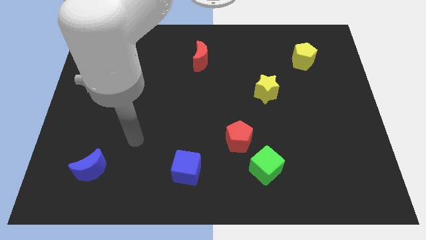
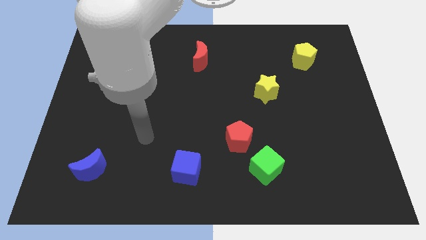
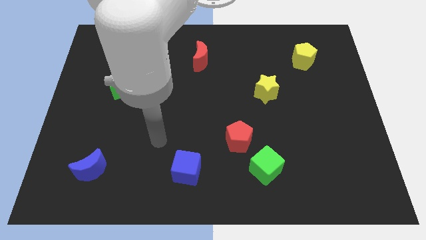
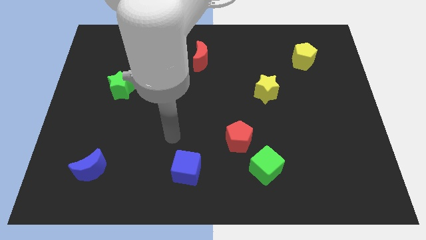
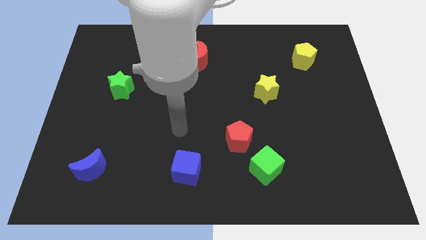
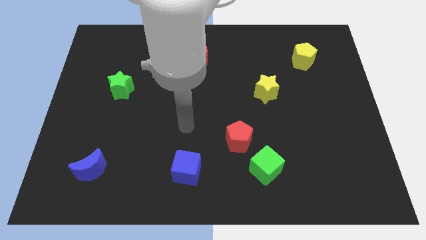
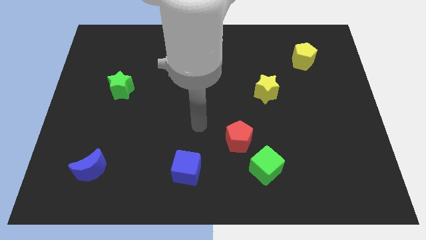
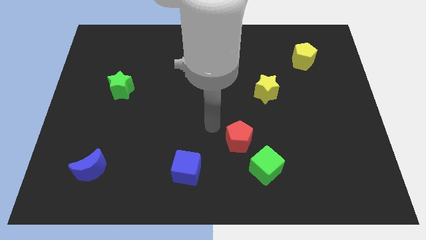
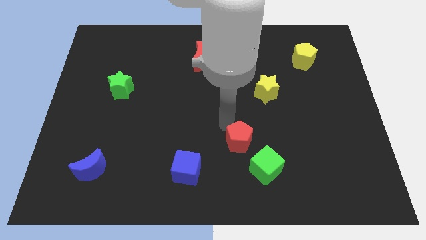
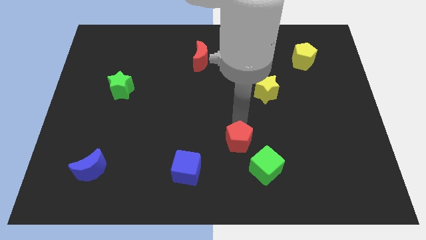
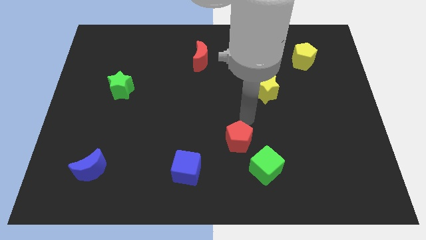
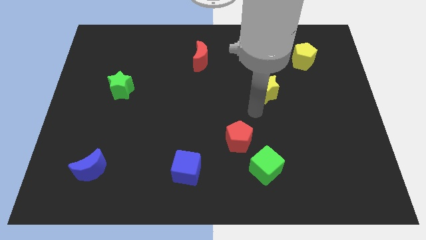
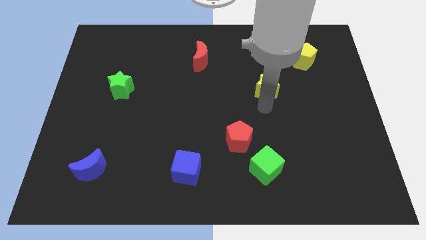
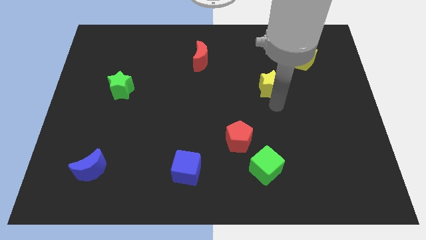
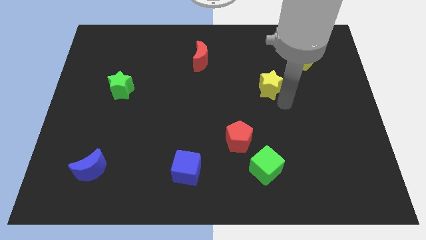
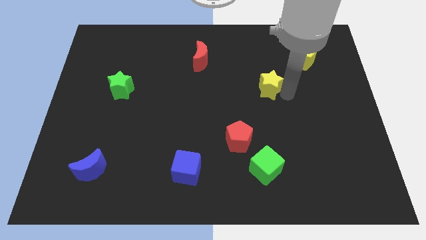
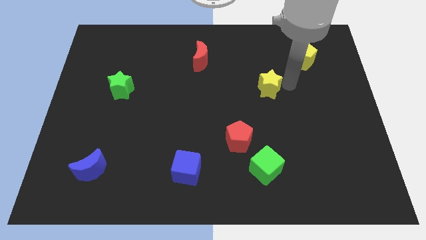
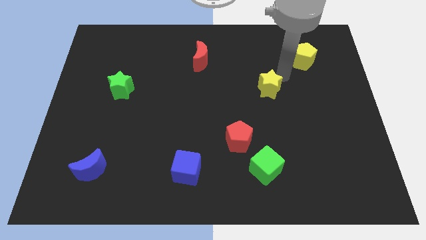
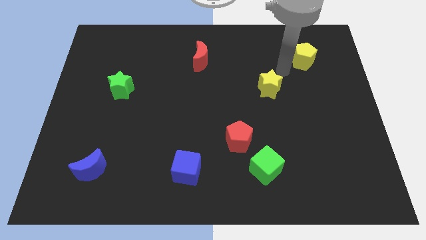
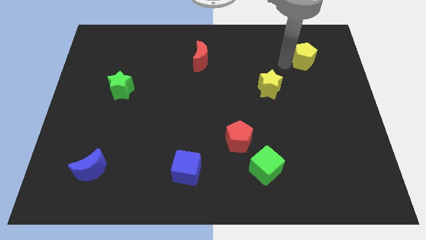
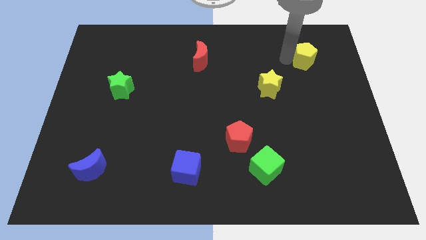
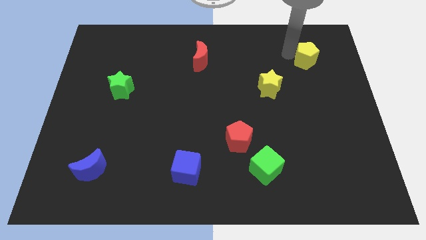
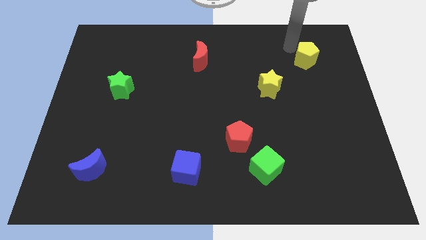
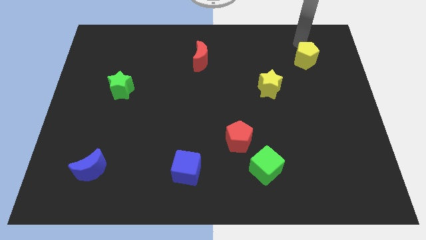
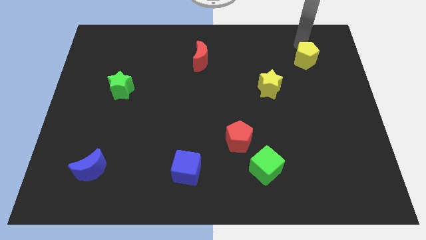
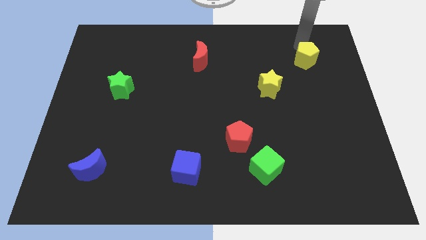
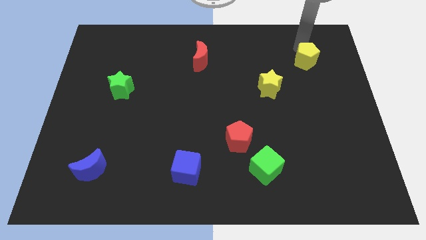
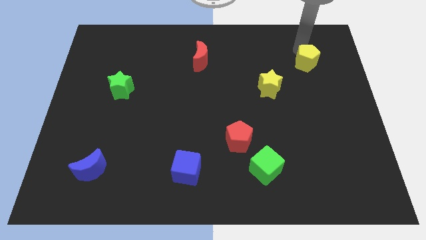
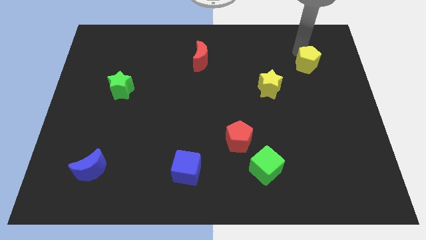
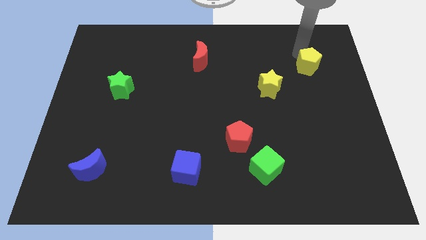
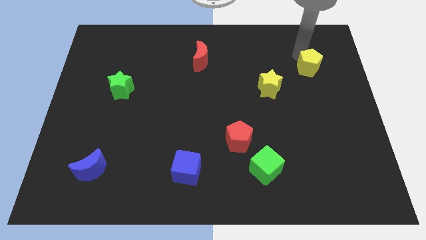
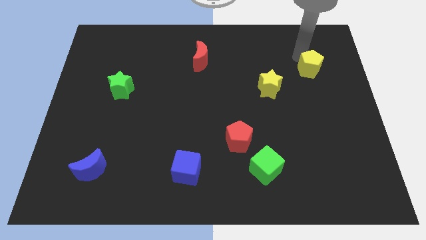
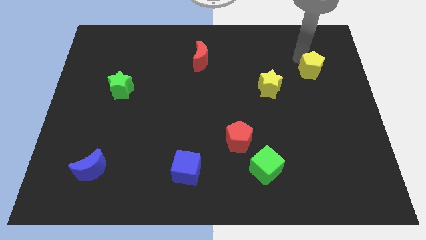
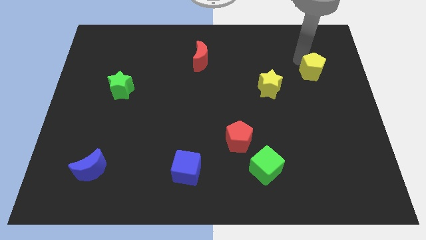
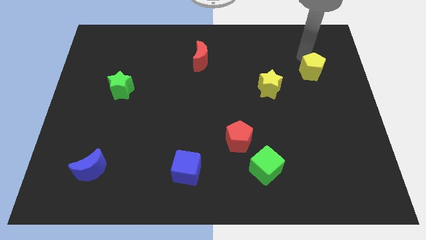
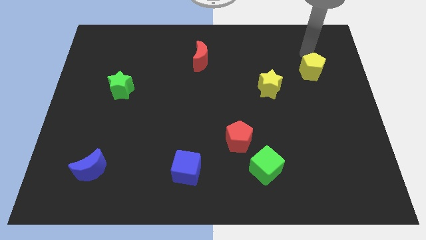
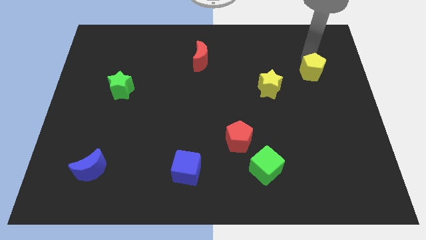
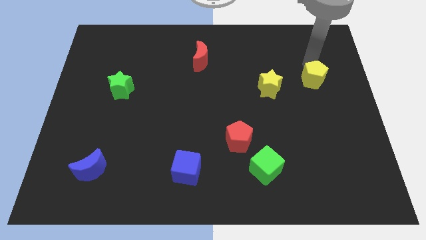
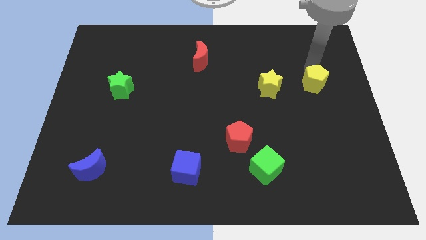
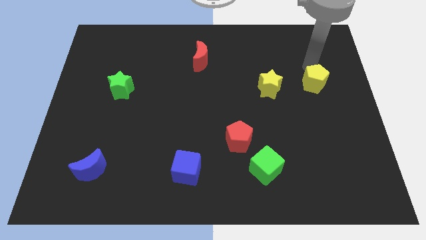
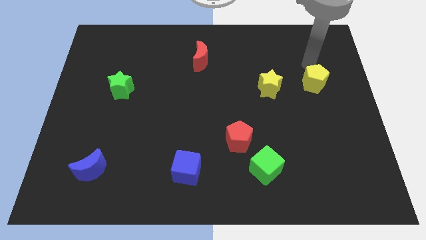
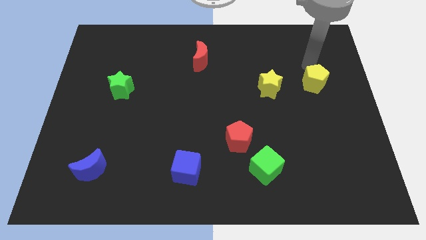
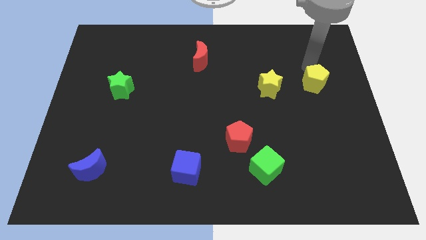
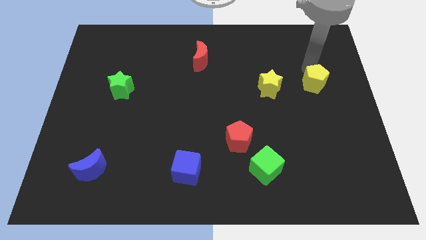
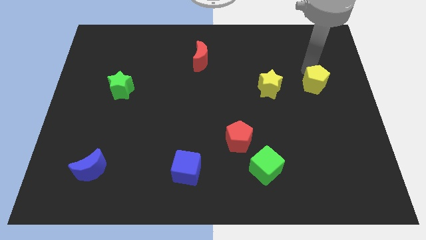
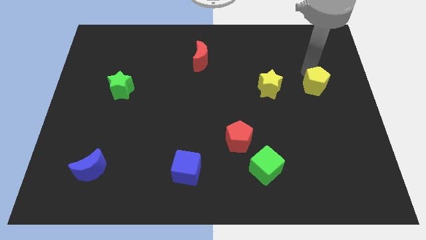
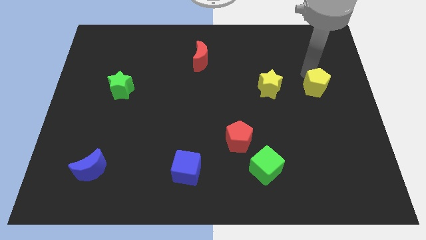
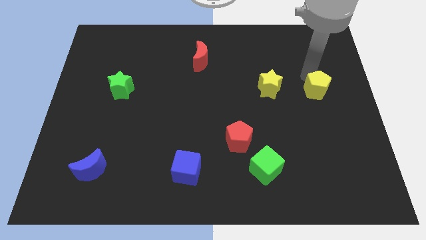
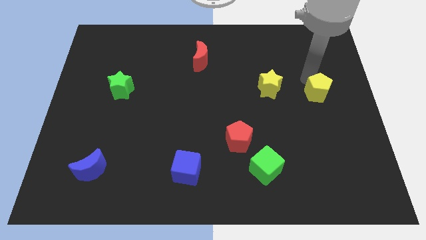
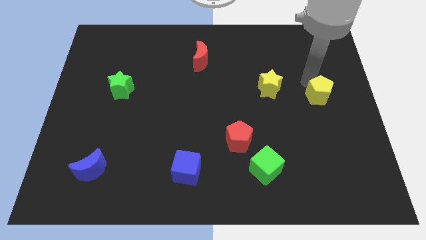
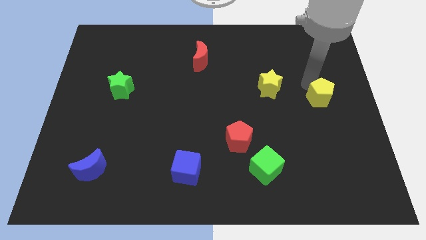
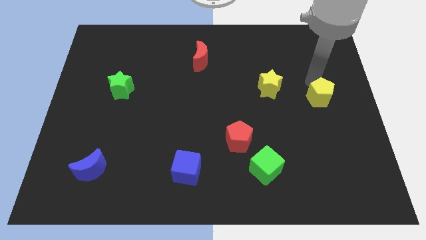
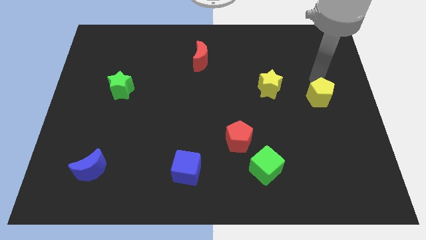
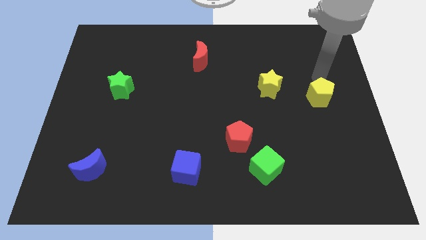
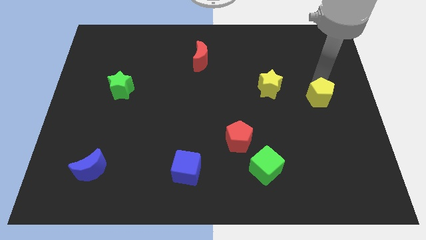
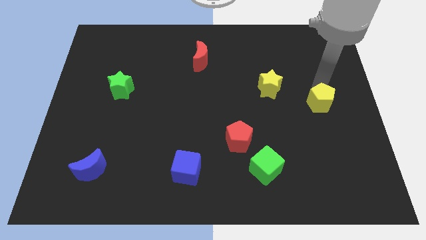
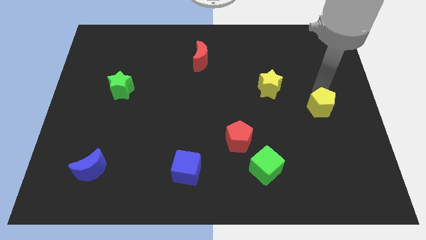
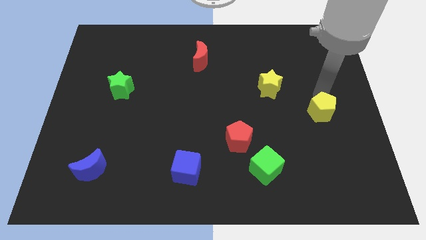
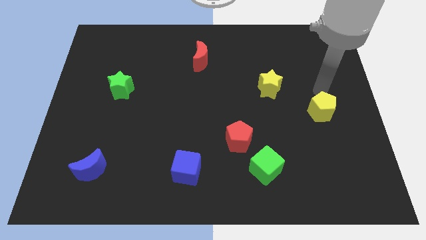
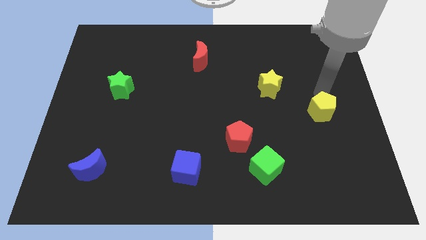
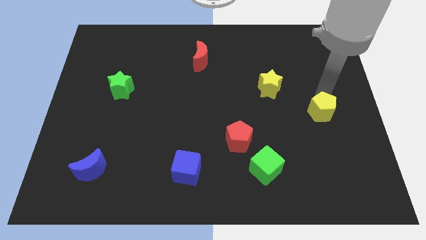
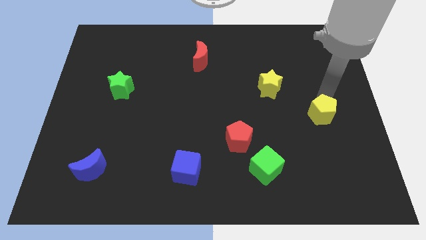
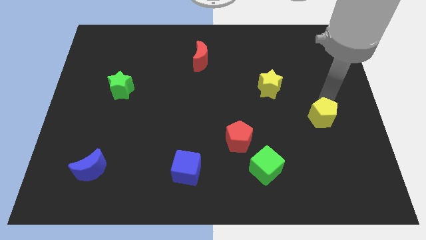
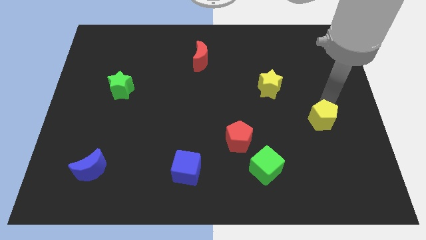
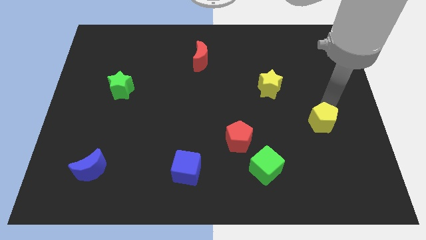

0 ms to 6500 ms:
push the yellow pentagon downwards

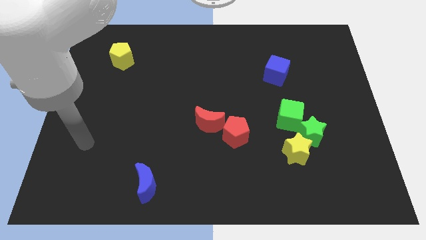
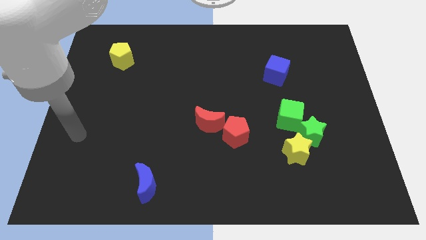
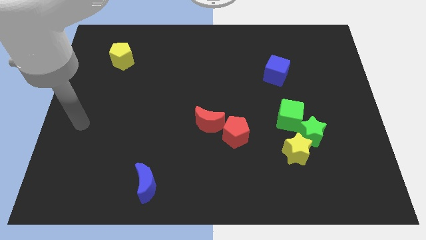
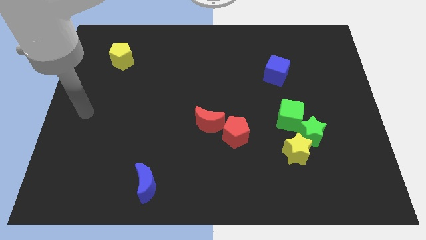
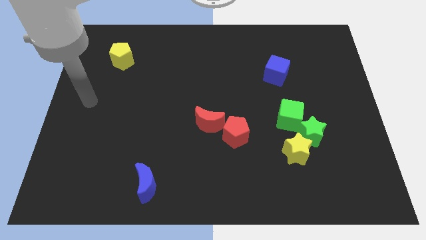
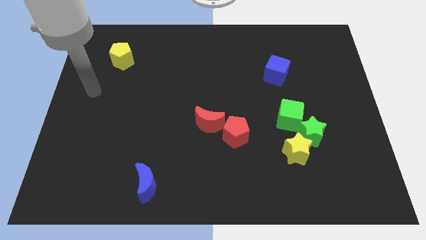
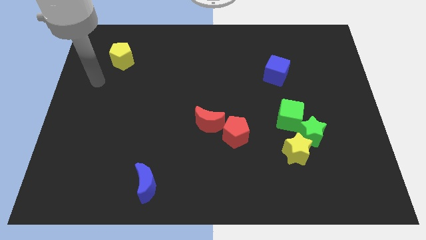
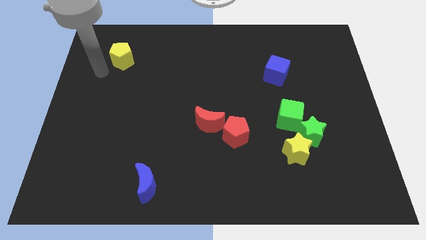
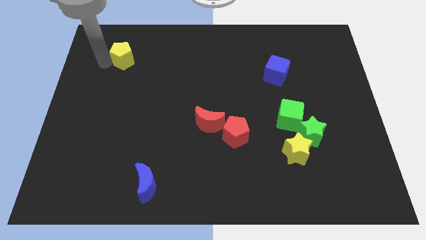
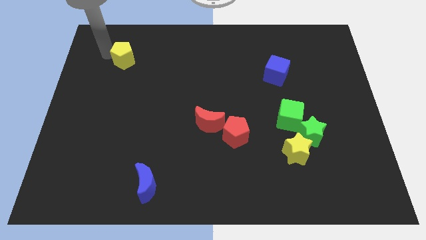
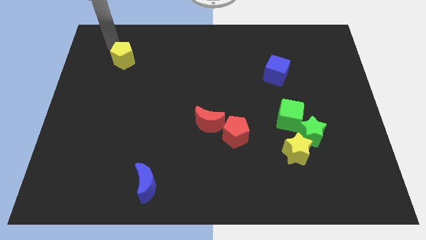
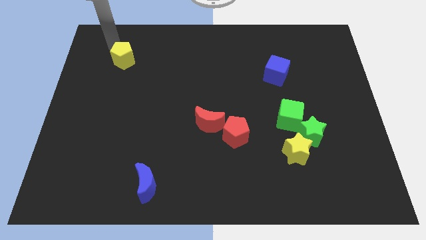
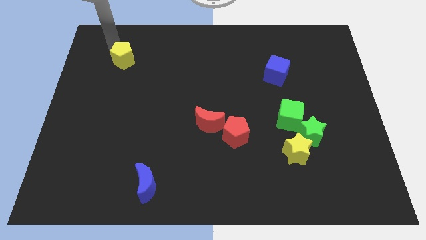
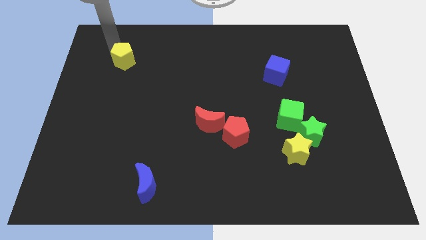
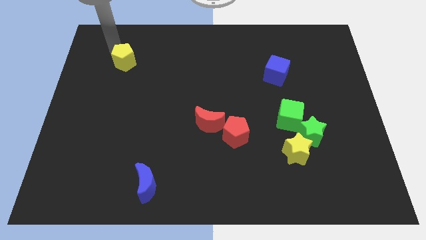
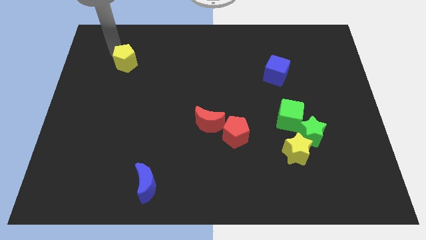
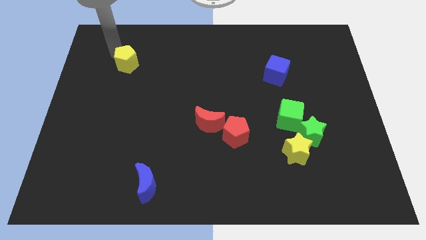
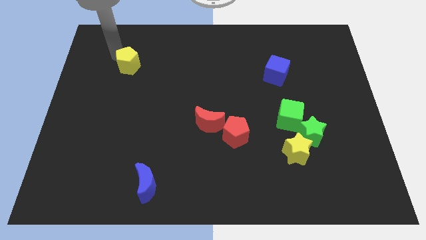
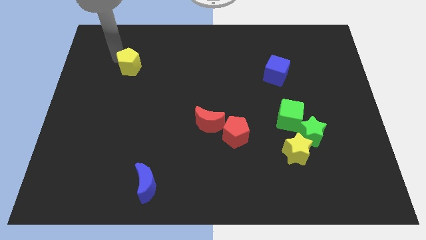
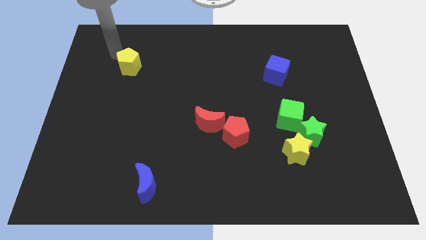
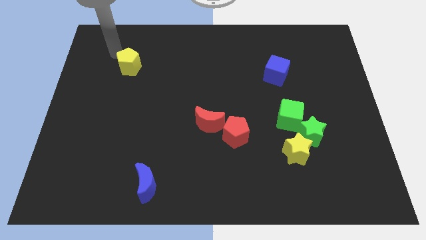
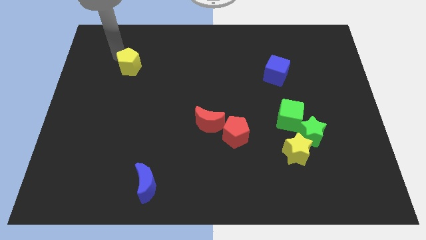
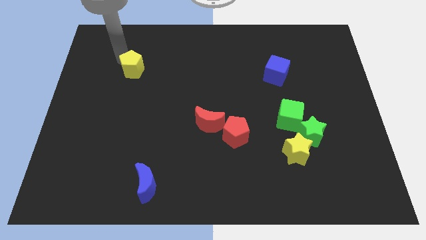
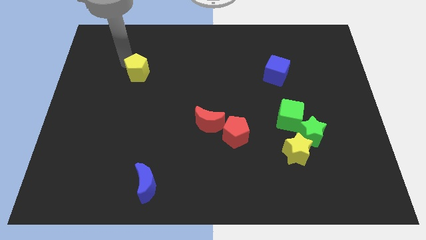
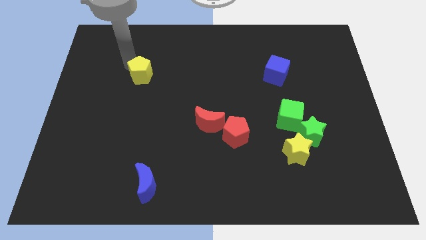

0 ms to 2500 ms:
slightly move the yellow pentagon downwards and right
